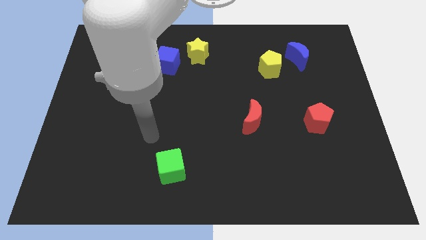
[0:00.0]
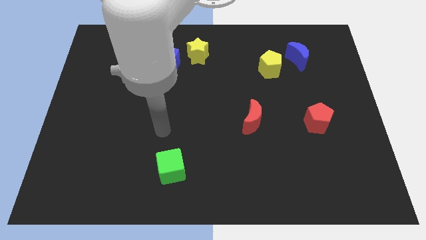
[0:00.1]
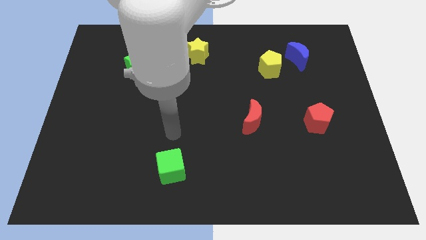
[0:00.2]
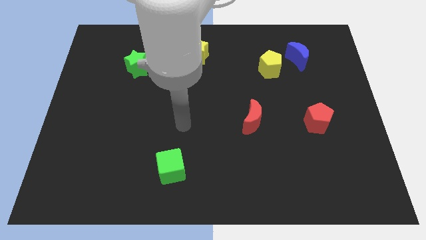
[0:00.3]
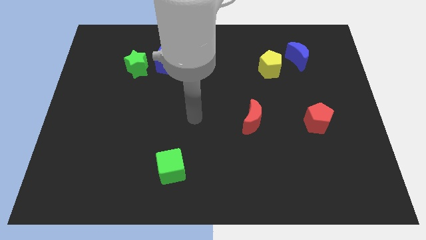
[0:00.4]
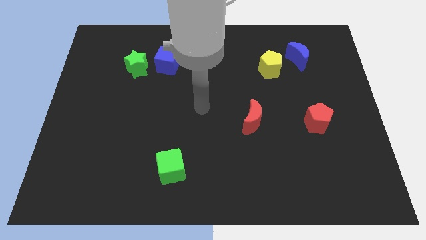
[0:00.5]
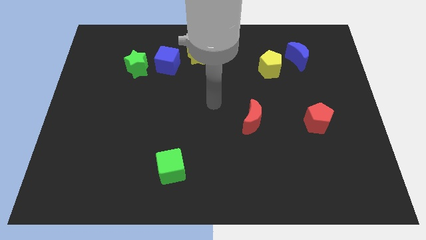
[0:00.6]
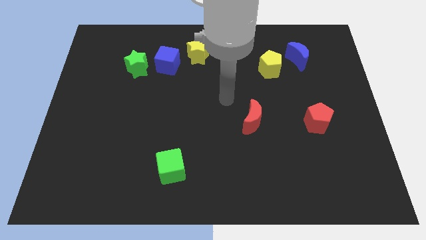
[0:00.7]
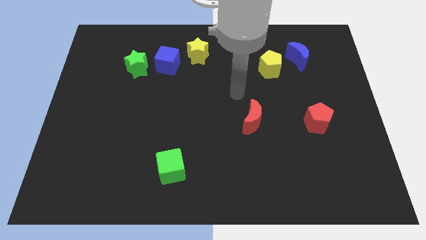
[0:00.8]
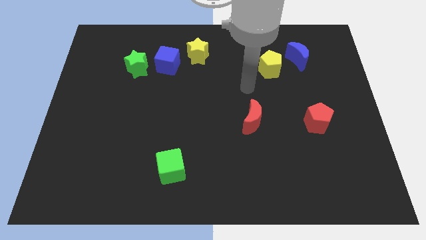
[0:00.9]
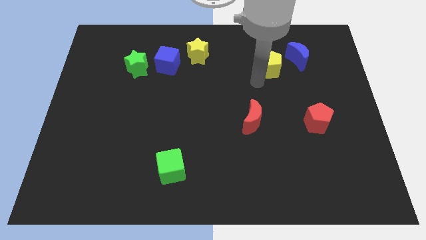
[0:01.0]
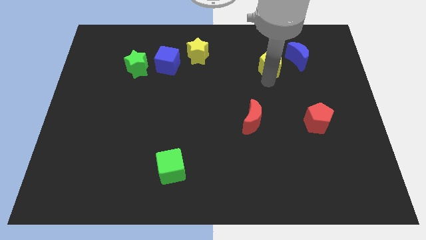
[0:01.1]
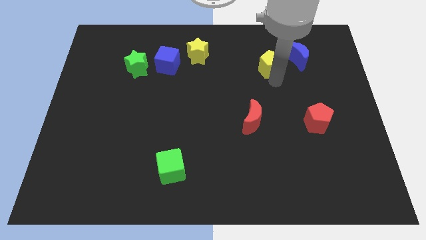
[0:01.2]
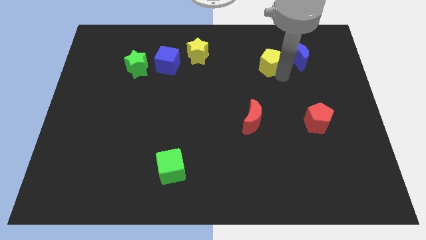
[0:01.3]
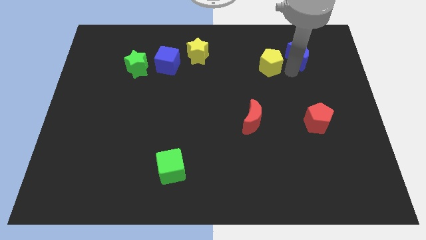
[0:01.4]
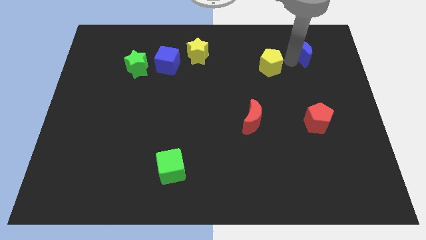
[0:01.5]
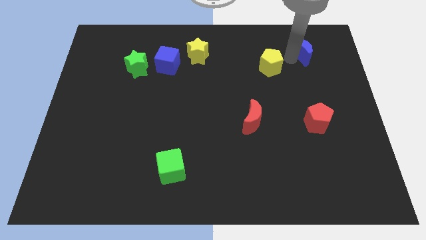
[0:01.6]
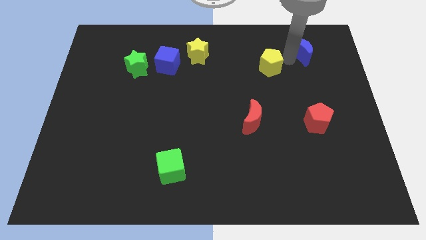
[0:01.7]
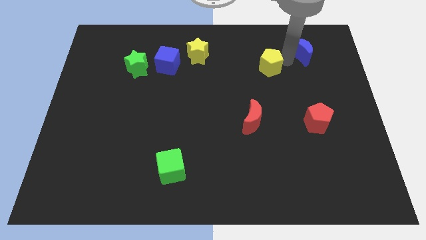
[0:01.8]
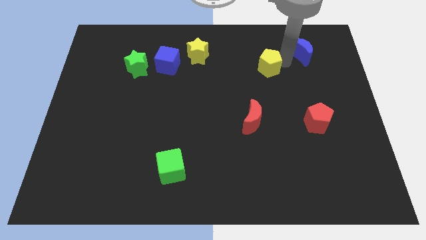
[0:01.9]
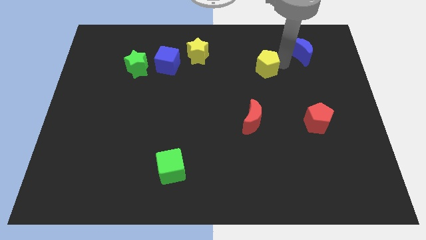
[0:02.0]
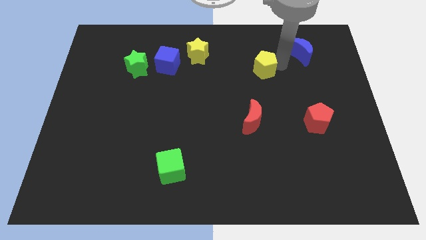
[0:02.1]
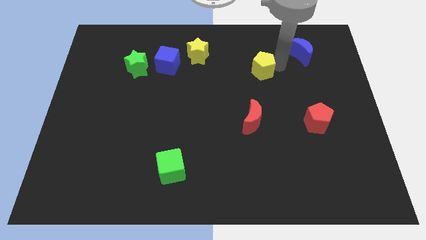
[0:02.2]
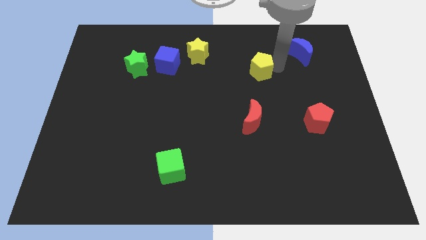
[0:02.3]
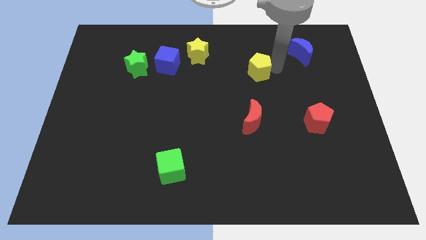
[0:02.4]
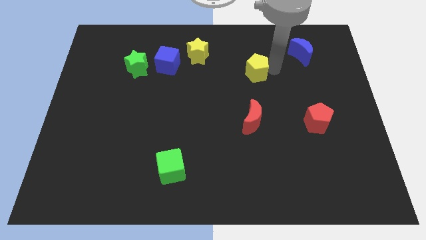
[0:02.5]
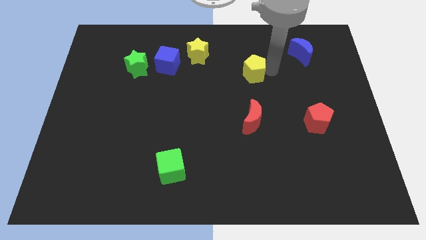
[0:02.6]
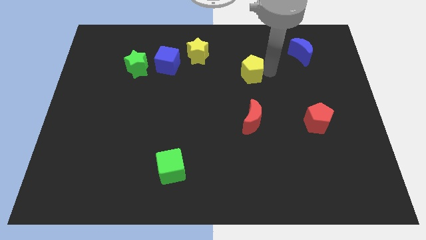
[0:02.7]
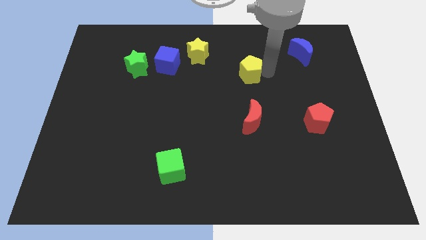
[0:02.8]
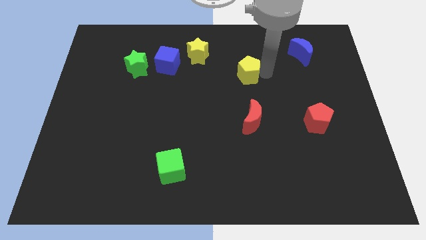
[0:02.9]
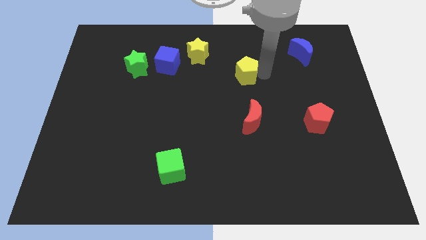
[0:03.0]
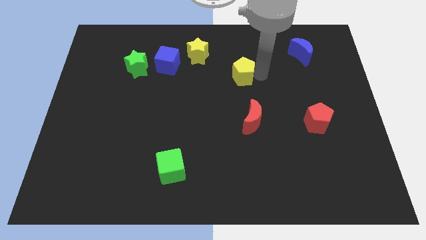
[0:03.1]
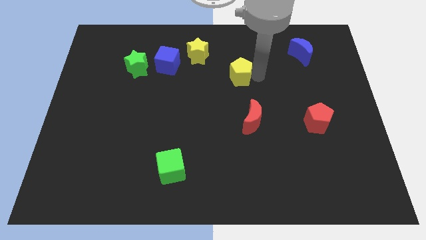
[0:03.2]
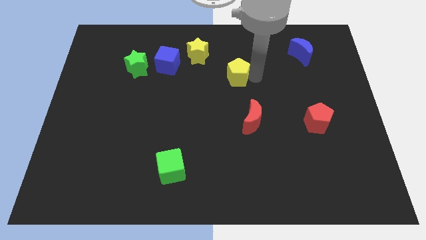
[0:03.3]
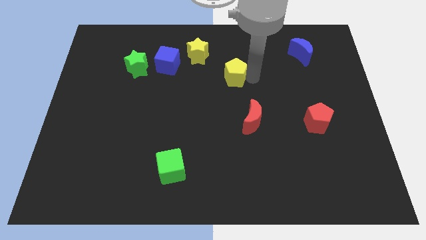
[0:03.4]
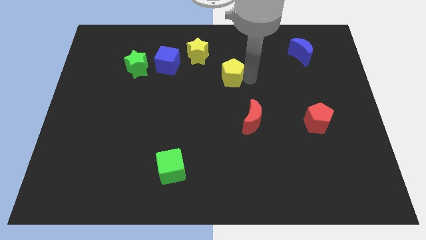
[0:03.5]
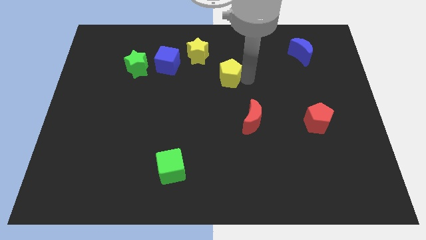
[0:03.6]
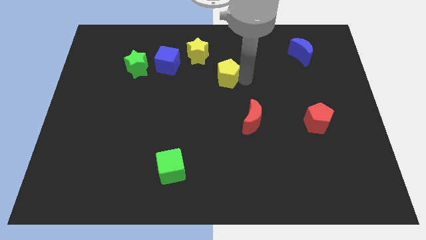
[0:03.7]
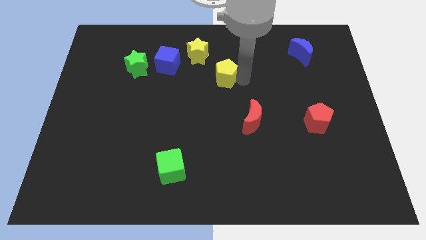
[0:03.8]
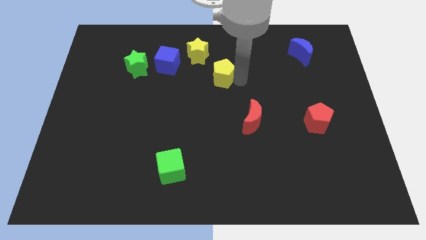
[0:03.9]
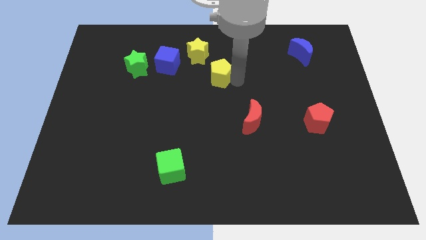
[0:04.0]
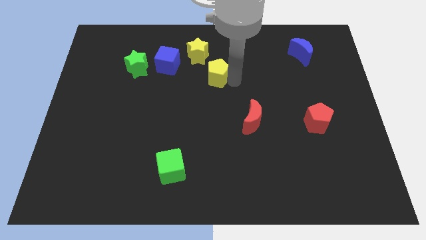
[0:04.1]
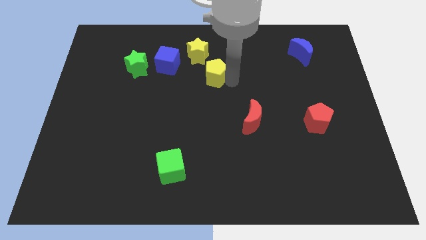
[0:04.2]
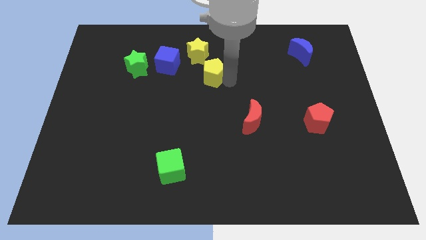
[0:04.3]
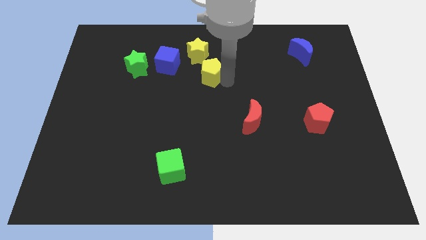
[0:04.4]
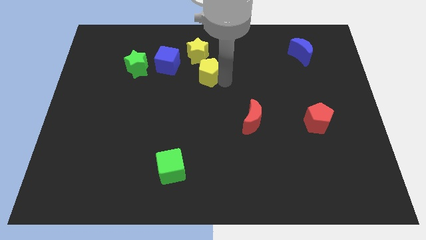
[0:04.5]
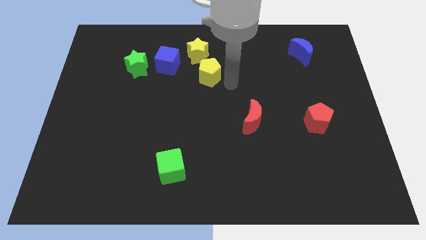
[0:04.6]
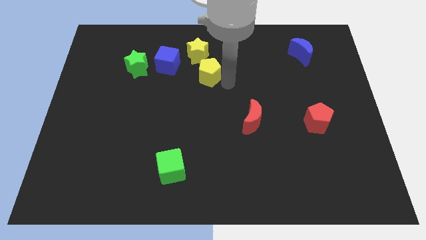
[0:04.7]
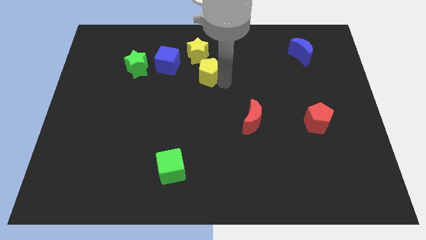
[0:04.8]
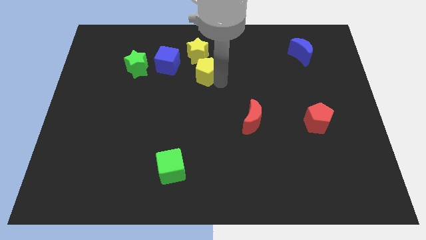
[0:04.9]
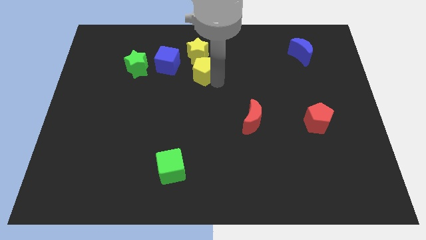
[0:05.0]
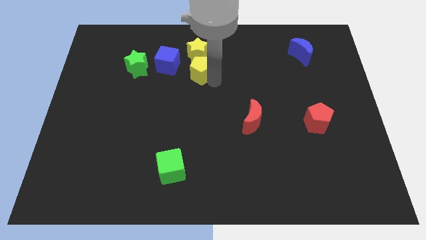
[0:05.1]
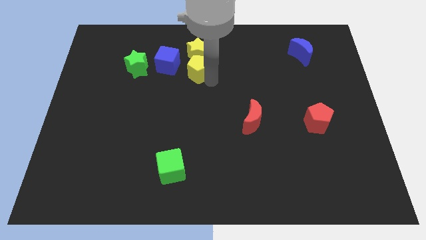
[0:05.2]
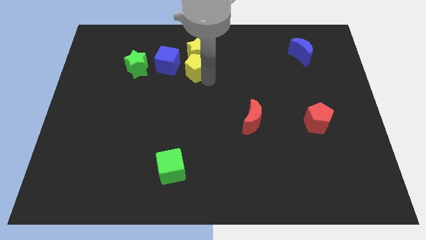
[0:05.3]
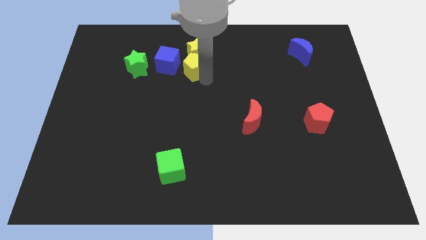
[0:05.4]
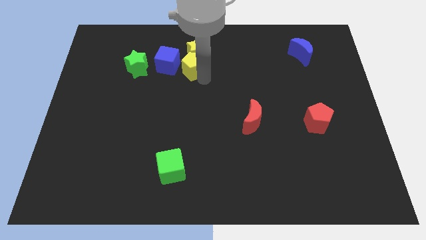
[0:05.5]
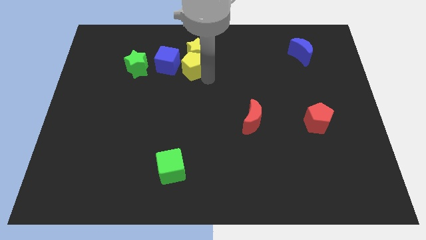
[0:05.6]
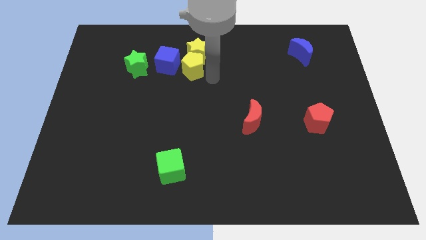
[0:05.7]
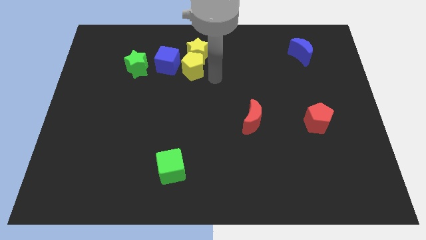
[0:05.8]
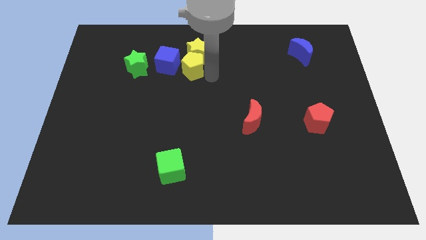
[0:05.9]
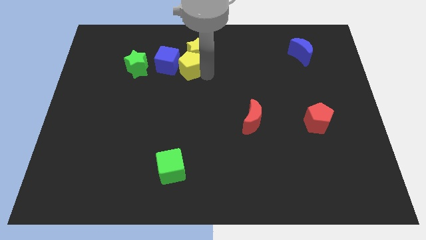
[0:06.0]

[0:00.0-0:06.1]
slide the yellow pentagon close to the blue cube
